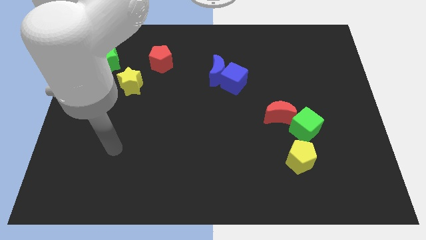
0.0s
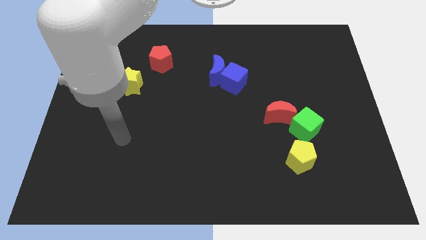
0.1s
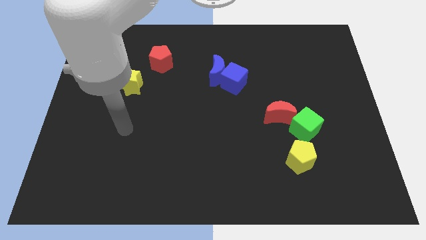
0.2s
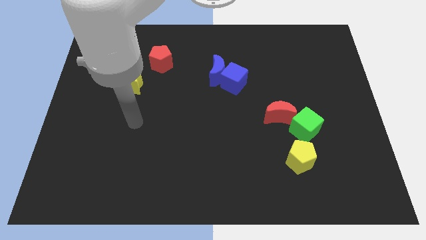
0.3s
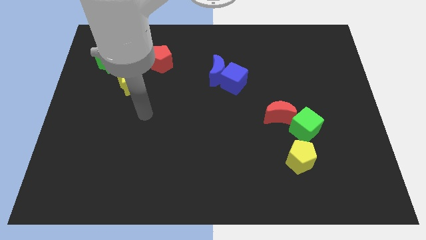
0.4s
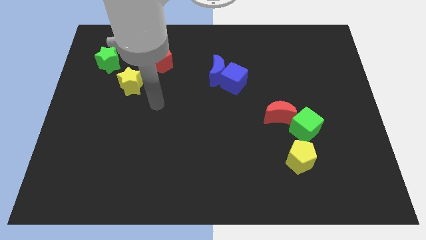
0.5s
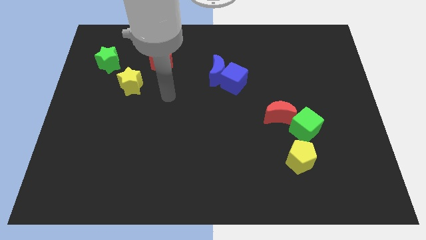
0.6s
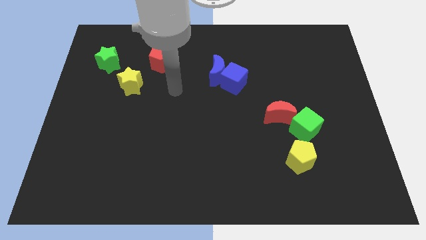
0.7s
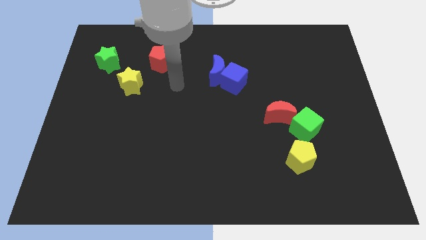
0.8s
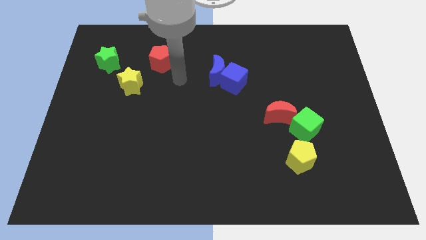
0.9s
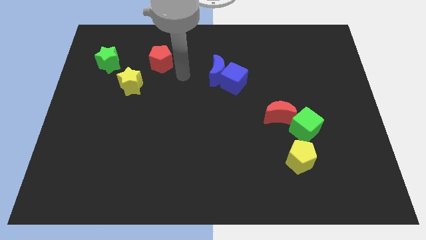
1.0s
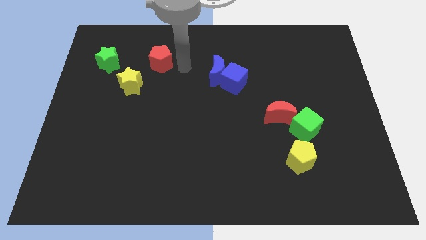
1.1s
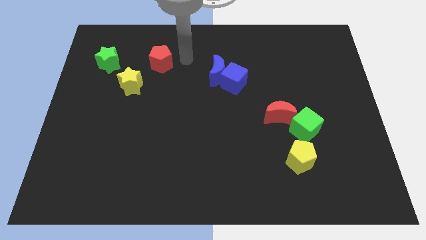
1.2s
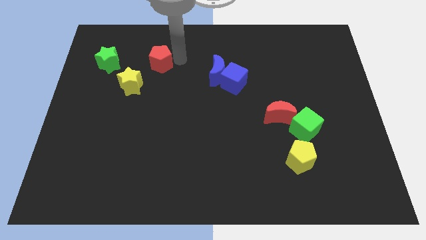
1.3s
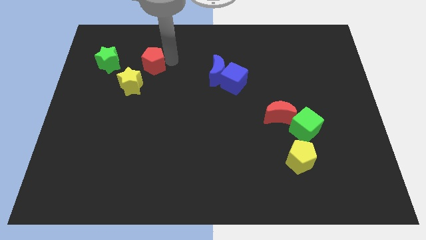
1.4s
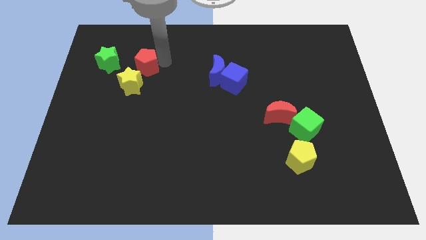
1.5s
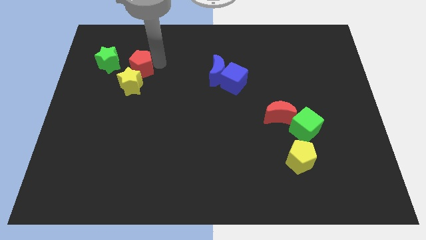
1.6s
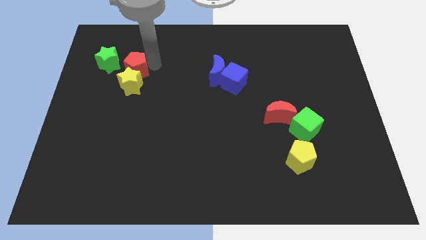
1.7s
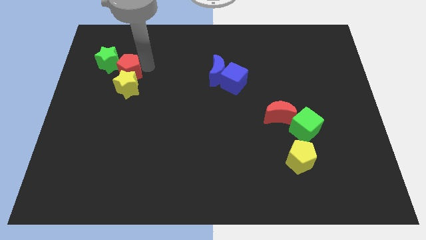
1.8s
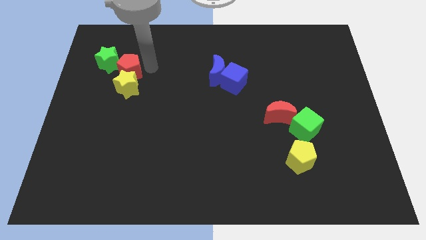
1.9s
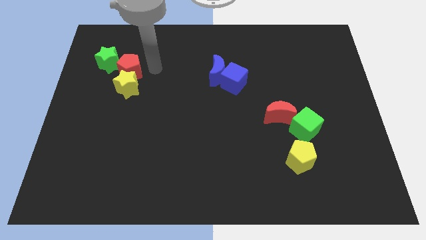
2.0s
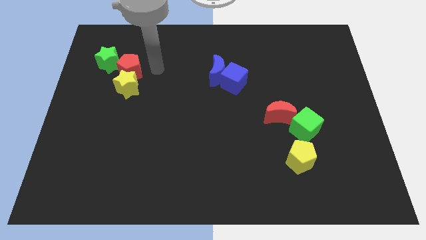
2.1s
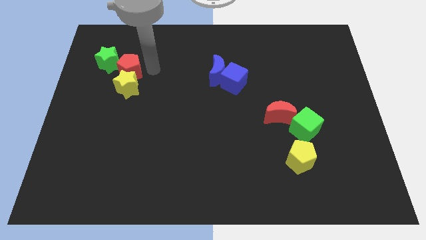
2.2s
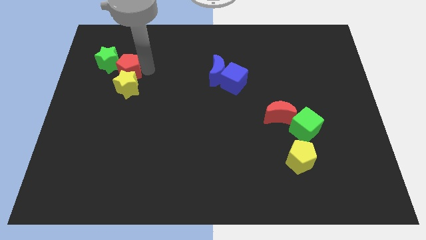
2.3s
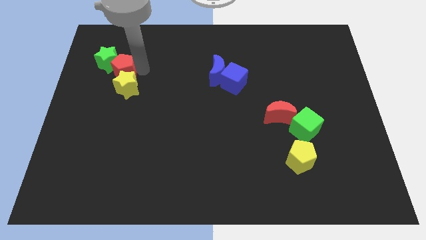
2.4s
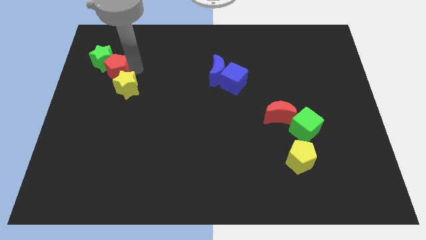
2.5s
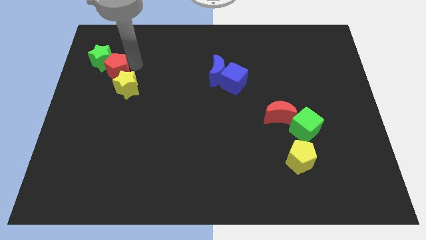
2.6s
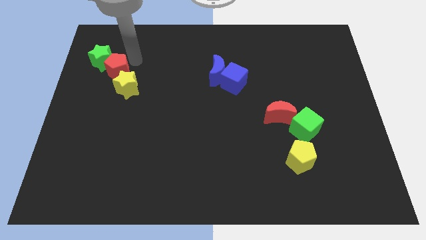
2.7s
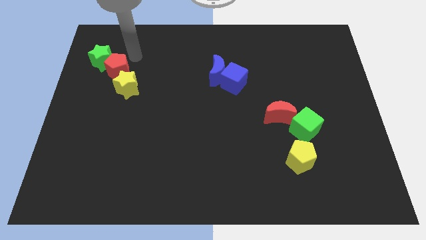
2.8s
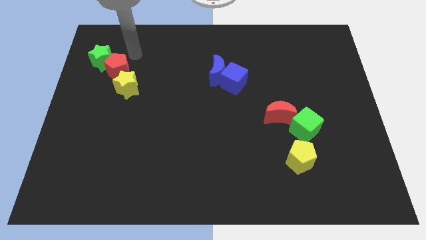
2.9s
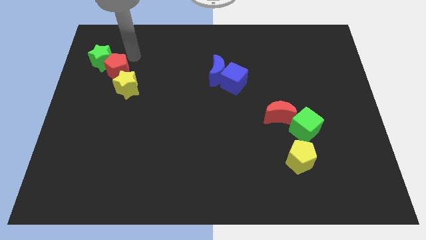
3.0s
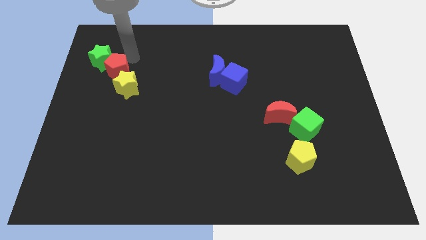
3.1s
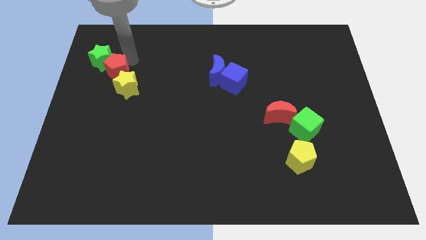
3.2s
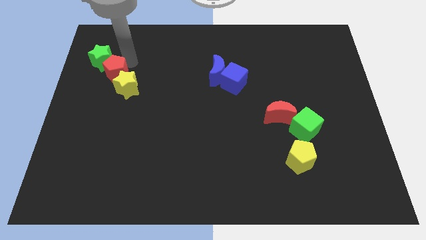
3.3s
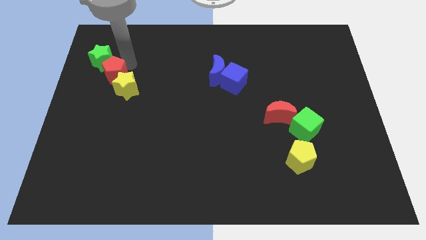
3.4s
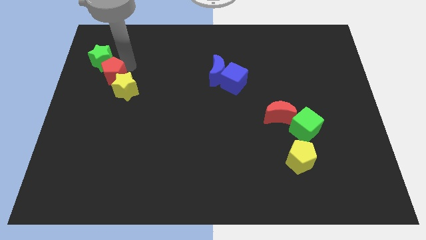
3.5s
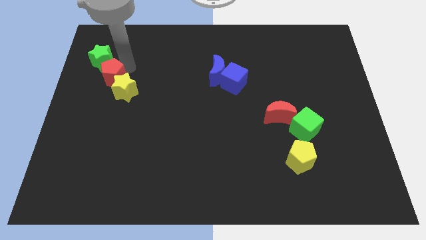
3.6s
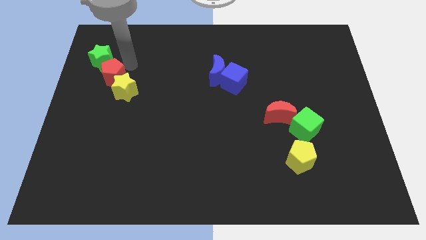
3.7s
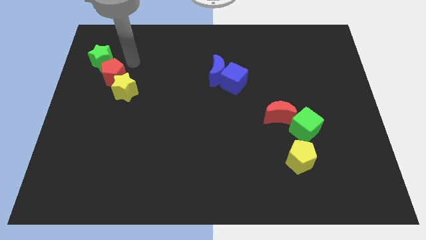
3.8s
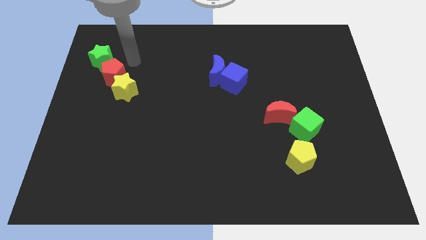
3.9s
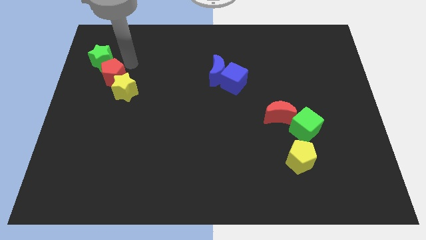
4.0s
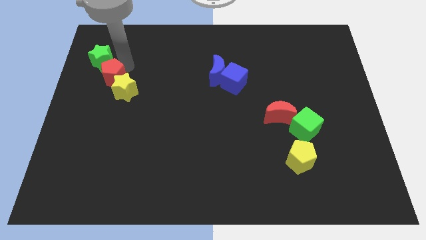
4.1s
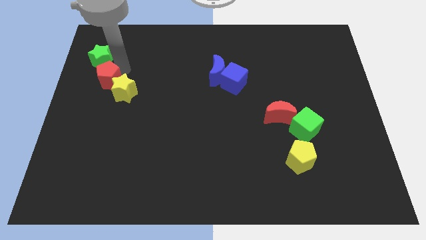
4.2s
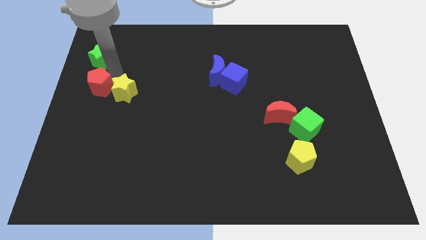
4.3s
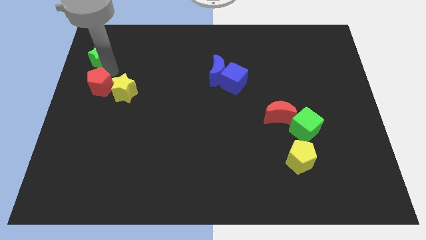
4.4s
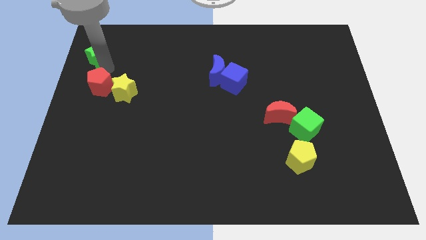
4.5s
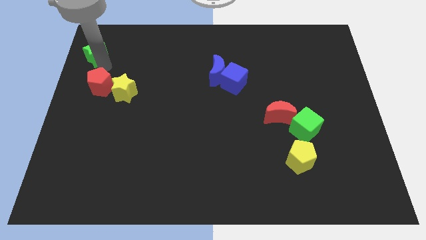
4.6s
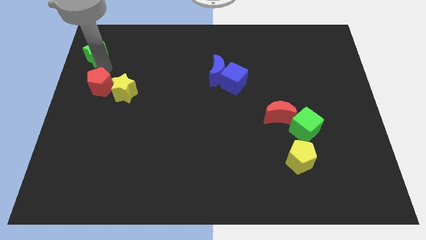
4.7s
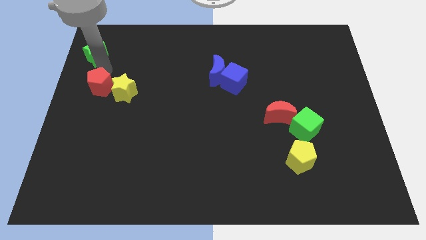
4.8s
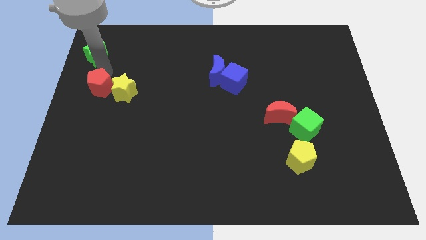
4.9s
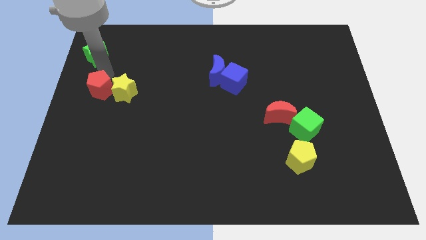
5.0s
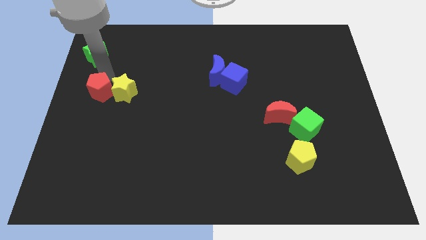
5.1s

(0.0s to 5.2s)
slide the red pentagon to the bottom left side of the yellow star

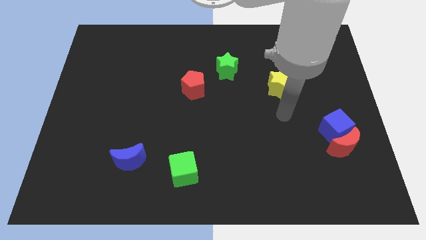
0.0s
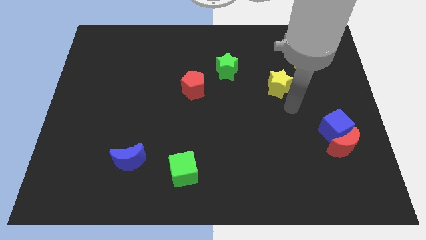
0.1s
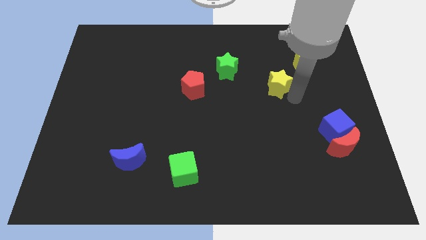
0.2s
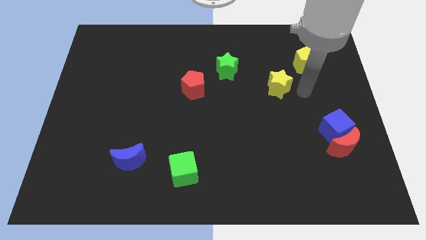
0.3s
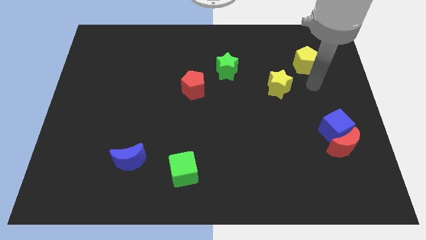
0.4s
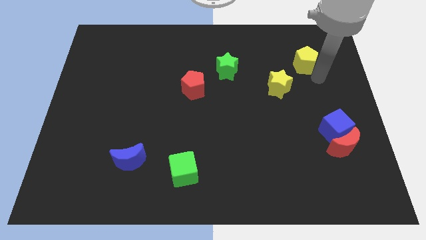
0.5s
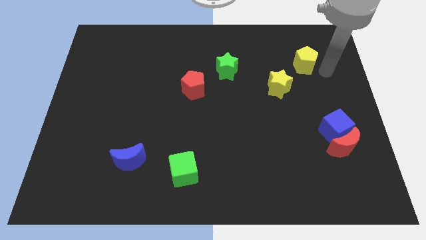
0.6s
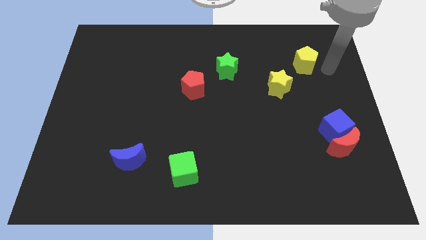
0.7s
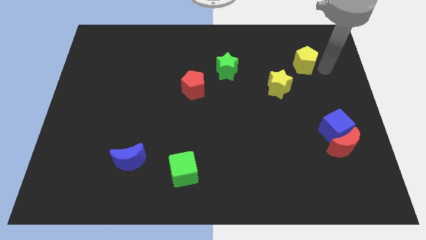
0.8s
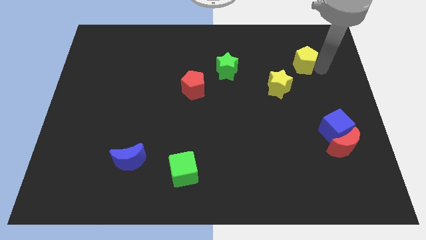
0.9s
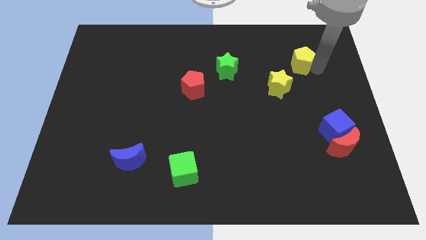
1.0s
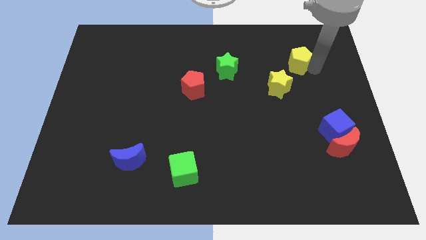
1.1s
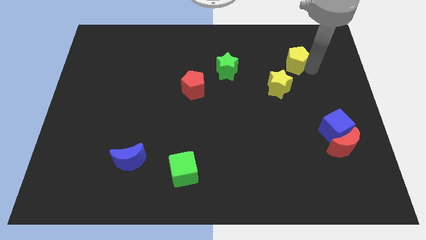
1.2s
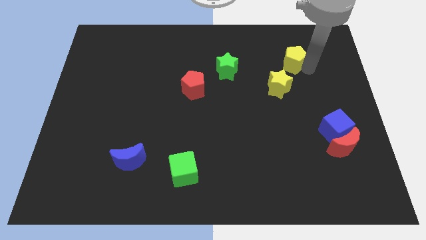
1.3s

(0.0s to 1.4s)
move the yellow pentagon above the yellow star

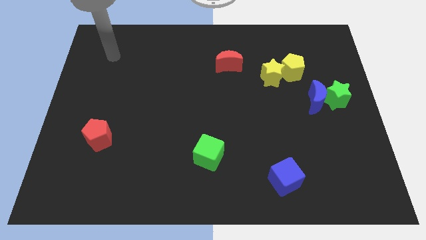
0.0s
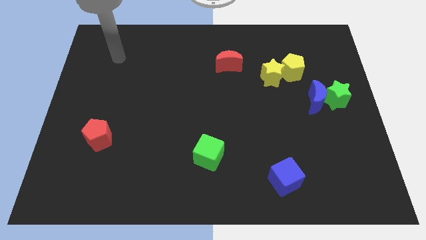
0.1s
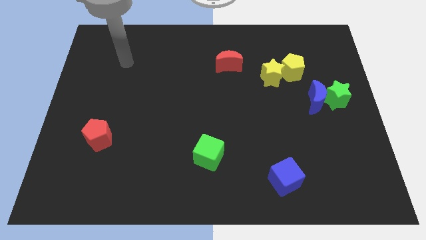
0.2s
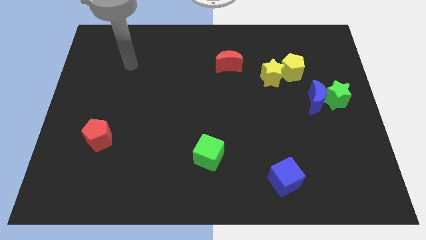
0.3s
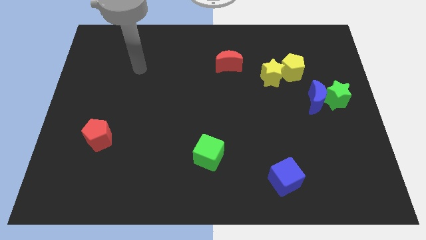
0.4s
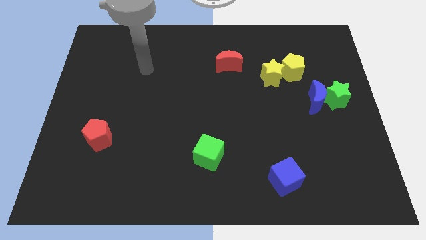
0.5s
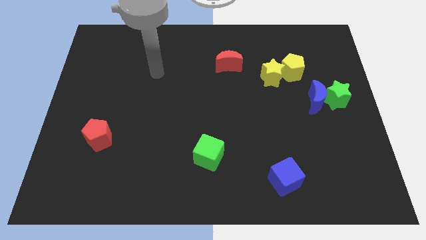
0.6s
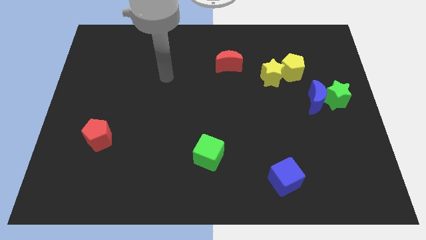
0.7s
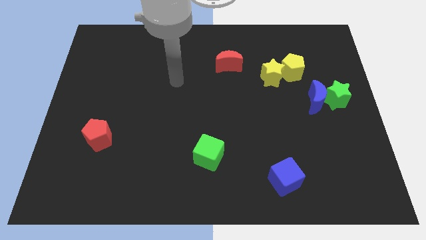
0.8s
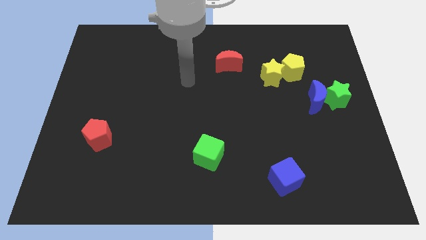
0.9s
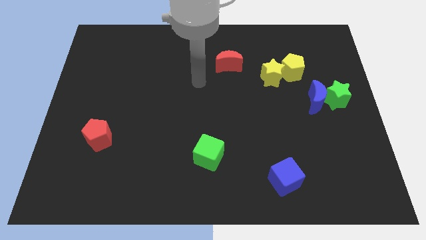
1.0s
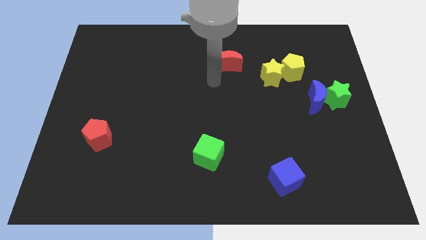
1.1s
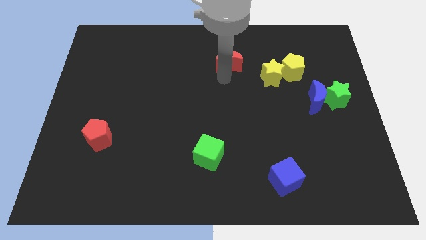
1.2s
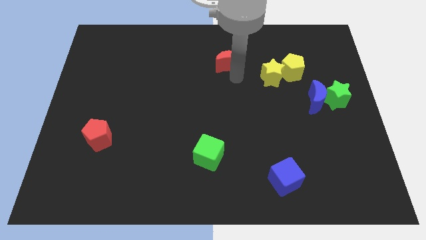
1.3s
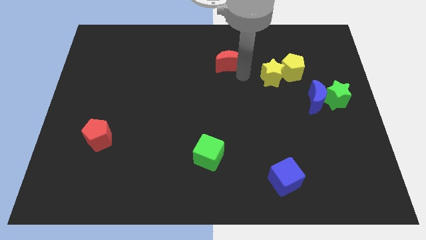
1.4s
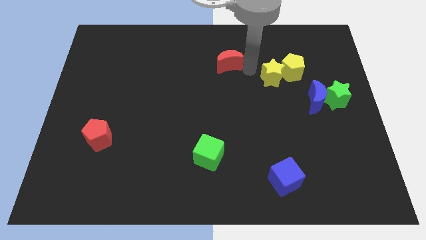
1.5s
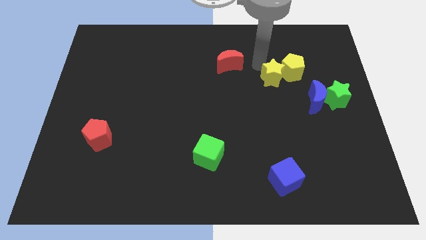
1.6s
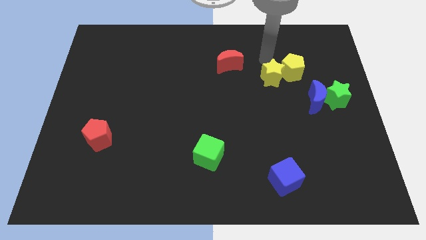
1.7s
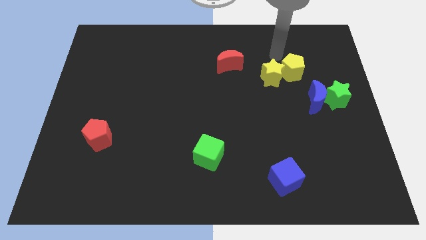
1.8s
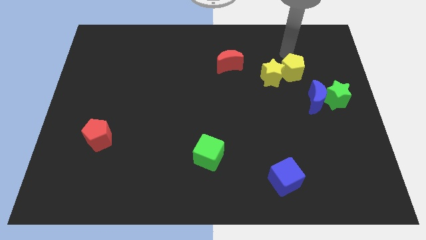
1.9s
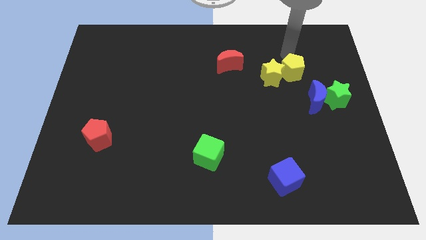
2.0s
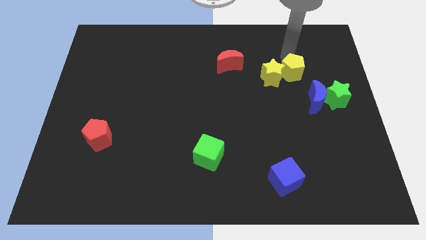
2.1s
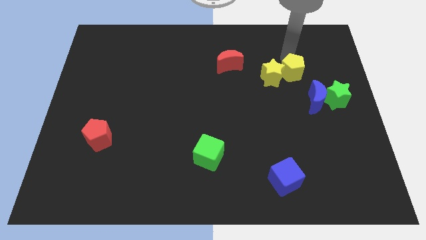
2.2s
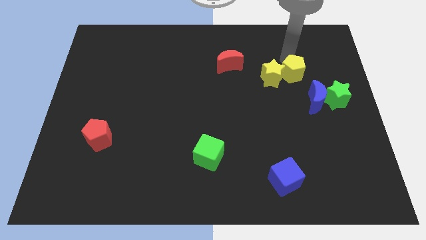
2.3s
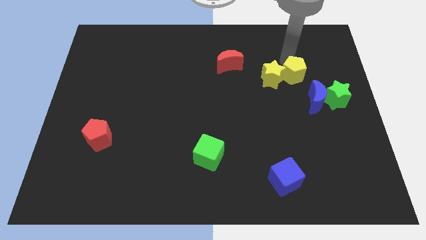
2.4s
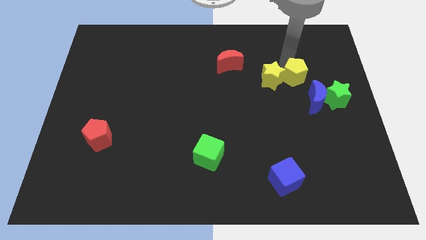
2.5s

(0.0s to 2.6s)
push the yellow pentagon diagonally down and to the right of the yellow star
